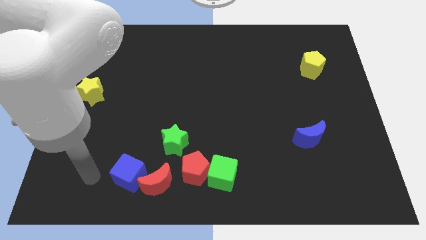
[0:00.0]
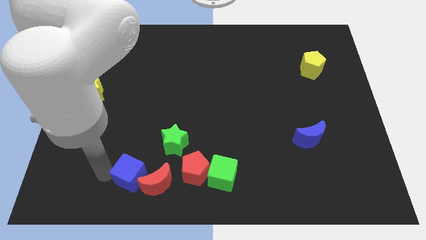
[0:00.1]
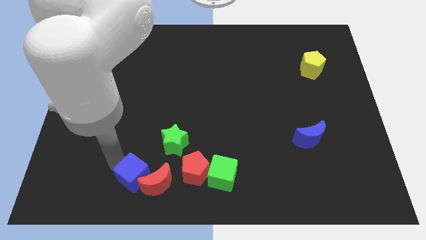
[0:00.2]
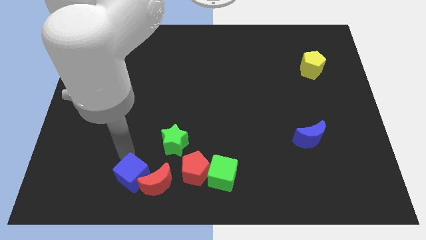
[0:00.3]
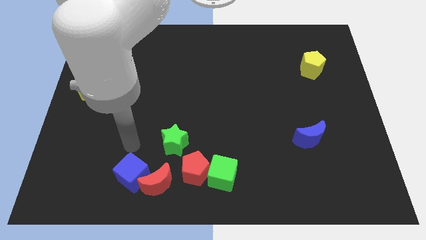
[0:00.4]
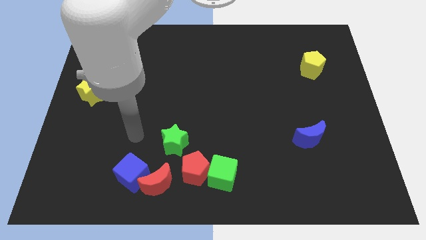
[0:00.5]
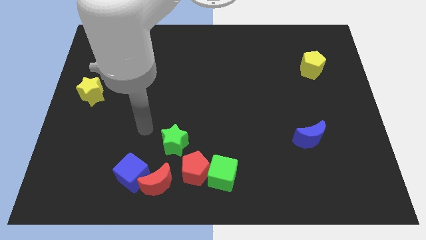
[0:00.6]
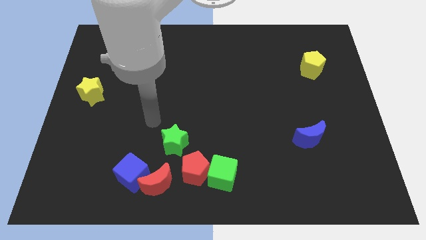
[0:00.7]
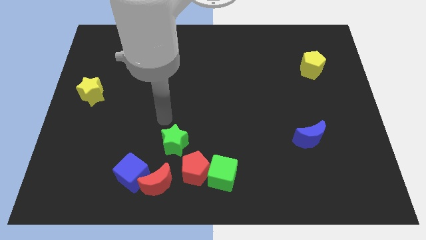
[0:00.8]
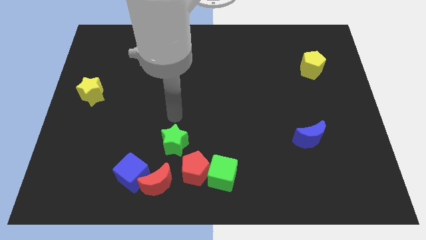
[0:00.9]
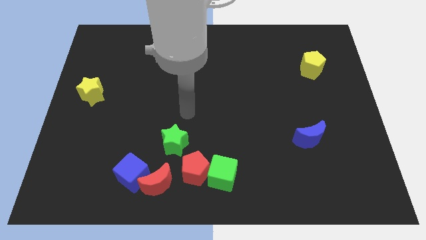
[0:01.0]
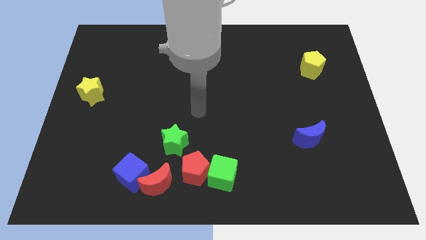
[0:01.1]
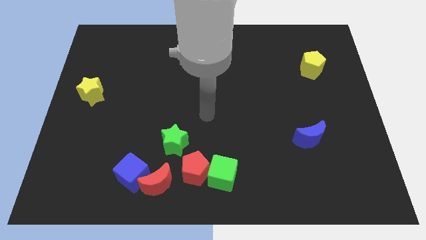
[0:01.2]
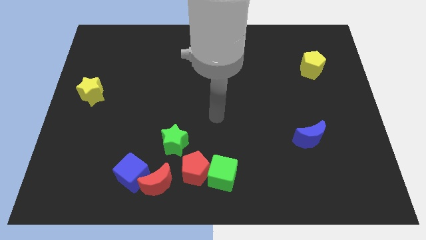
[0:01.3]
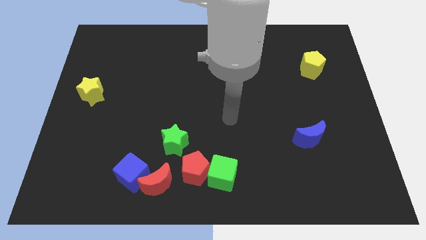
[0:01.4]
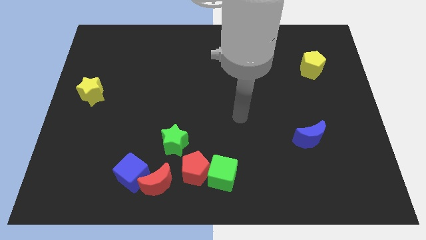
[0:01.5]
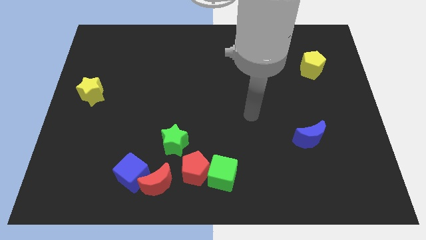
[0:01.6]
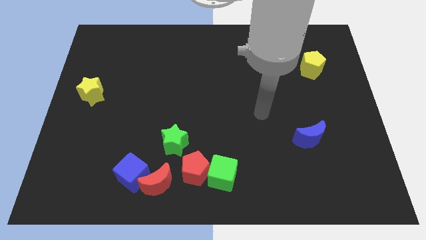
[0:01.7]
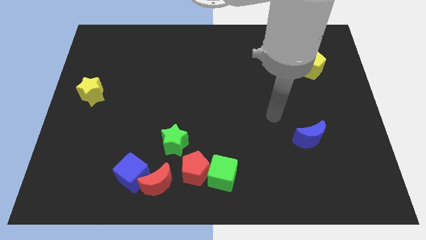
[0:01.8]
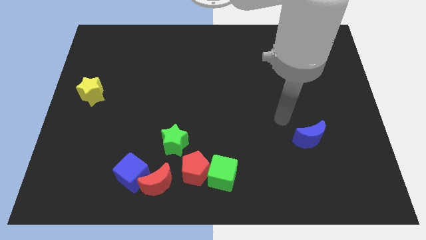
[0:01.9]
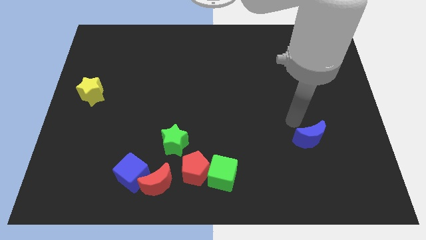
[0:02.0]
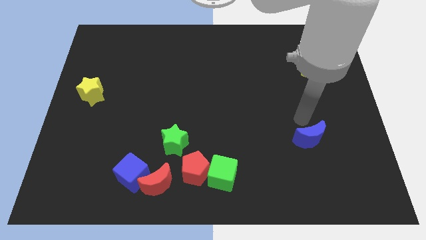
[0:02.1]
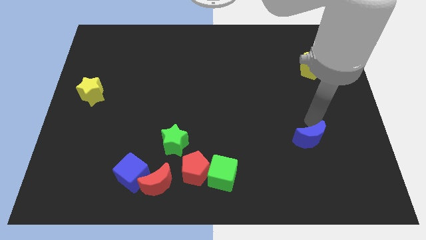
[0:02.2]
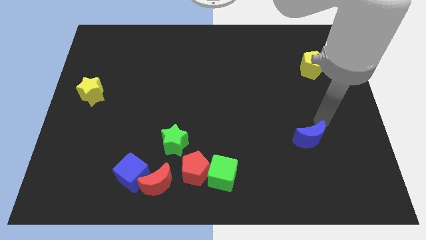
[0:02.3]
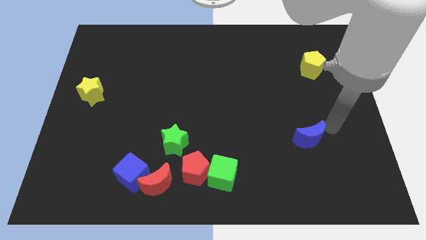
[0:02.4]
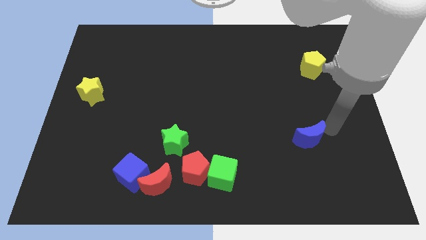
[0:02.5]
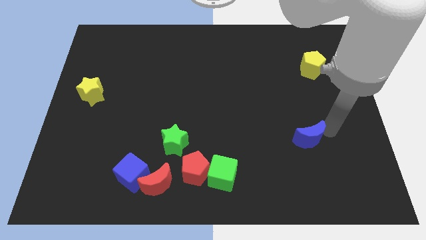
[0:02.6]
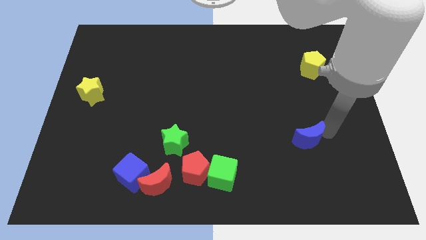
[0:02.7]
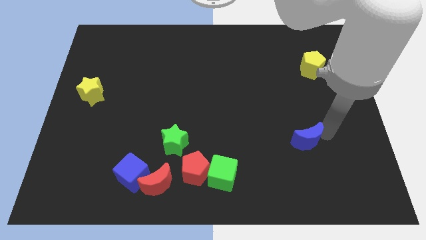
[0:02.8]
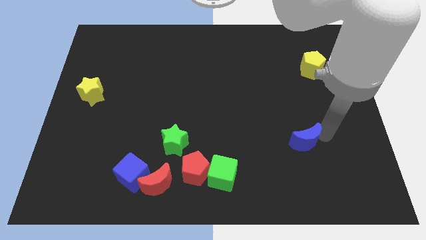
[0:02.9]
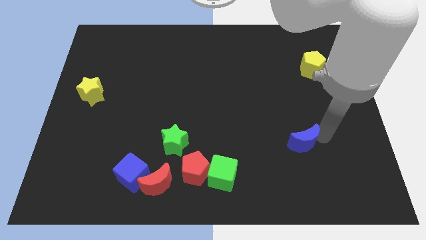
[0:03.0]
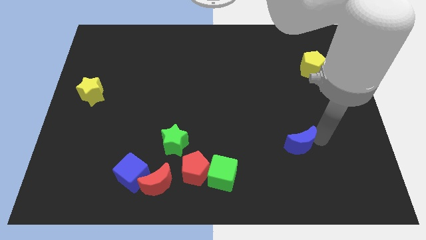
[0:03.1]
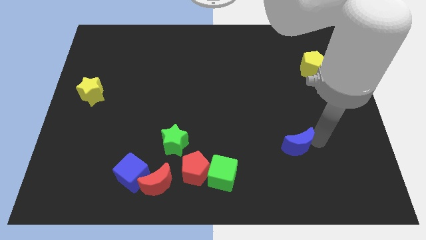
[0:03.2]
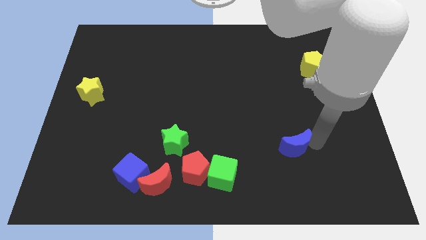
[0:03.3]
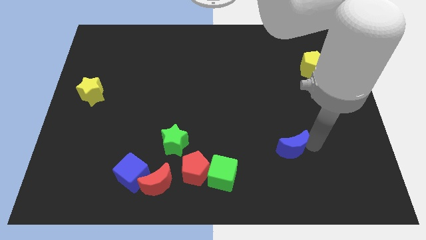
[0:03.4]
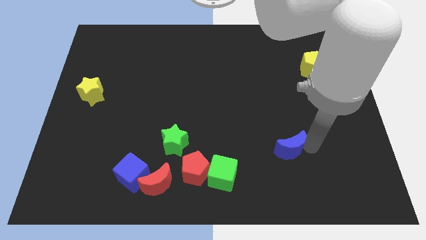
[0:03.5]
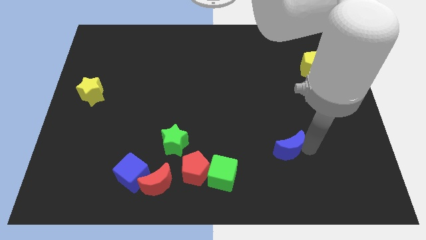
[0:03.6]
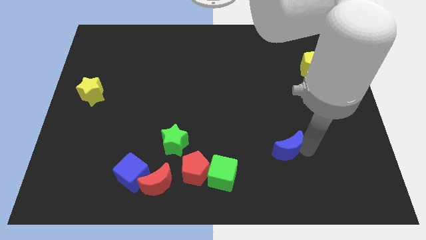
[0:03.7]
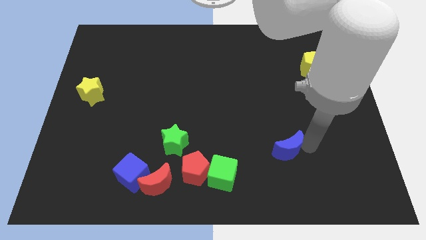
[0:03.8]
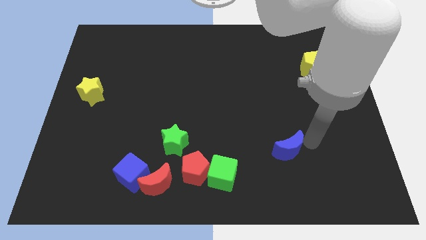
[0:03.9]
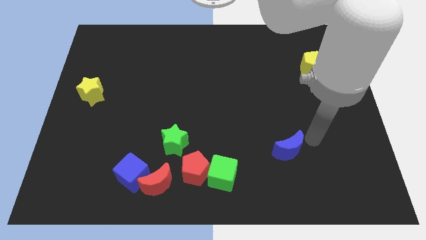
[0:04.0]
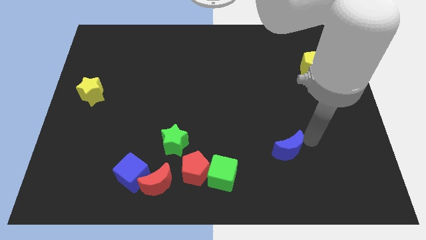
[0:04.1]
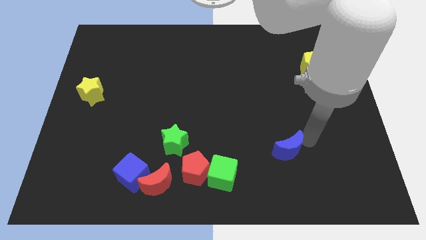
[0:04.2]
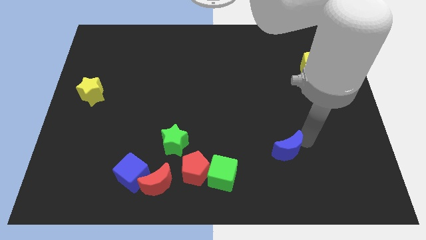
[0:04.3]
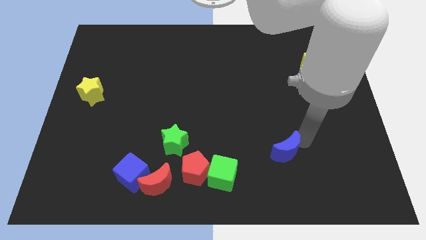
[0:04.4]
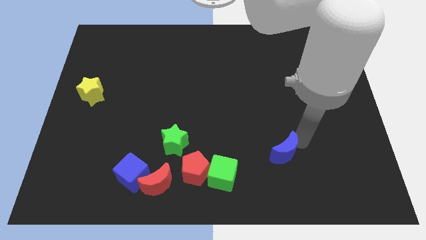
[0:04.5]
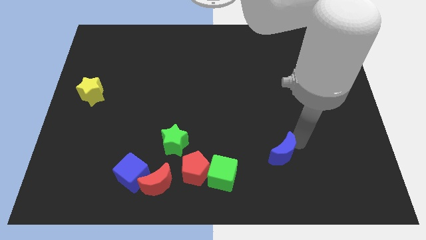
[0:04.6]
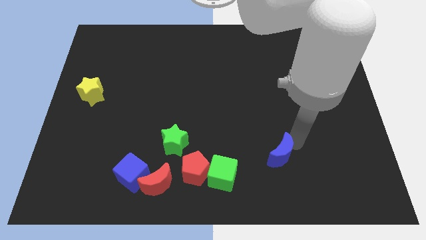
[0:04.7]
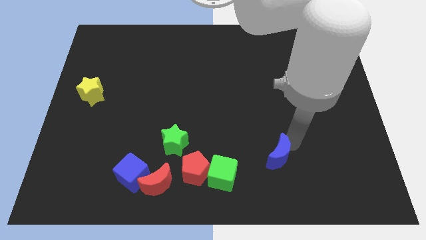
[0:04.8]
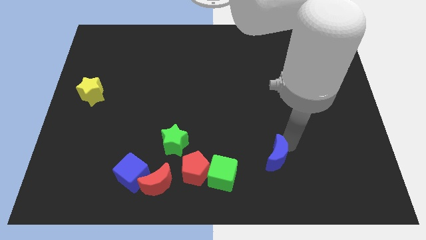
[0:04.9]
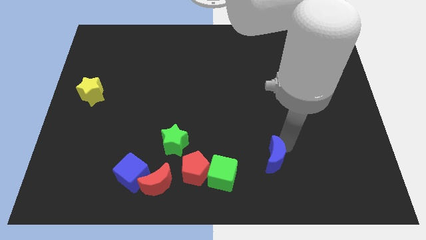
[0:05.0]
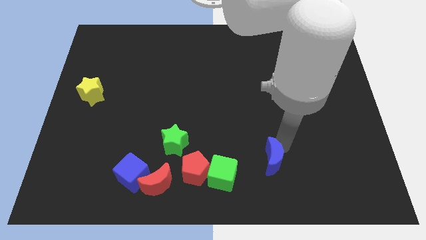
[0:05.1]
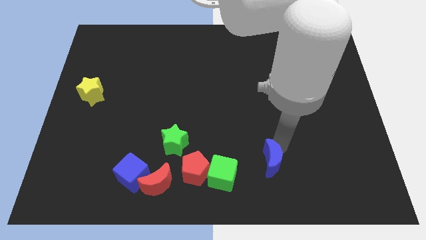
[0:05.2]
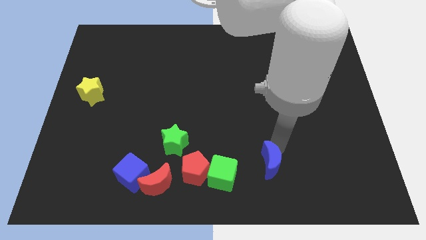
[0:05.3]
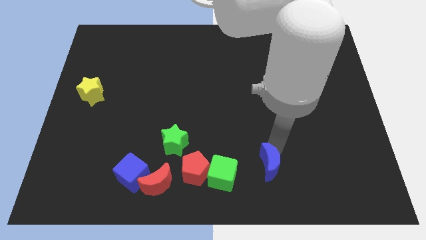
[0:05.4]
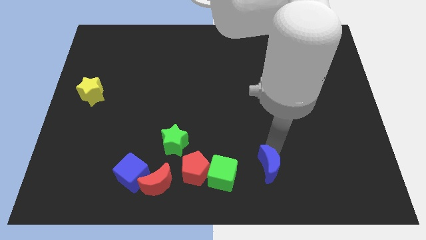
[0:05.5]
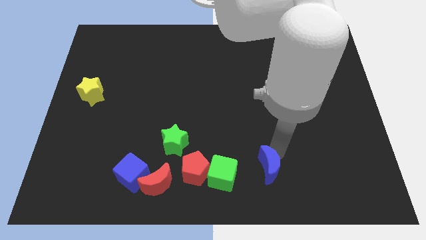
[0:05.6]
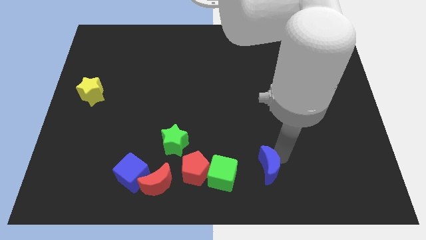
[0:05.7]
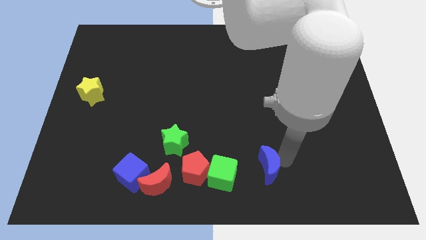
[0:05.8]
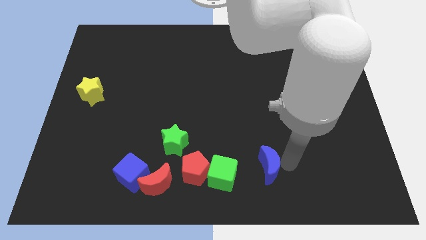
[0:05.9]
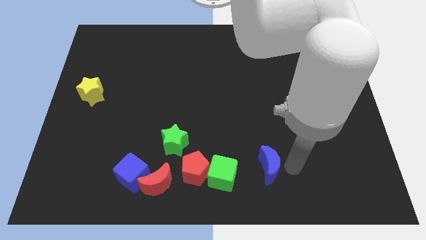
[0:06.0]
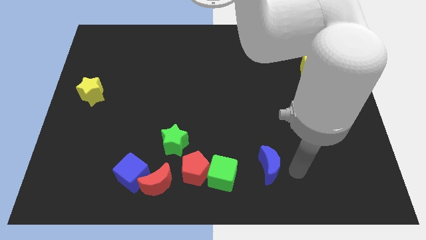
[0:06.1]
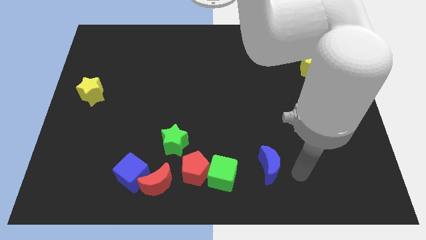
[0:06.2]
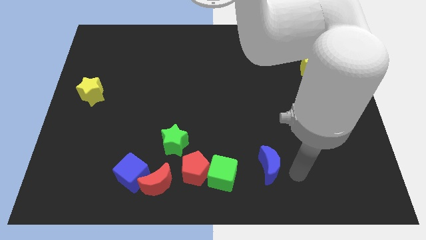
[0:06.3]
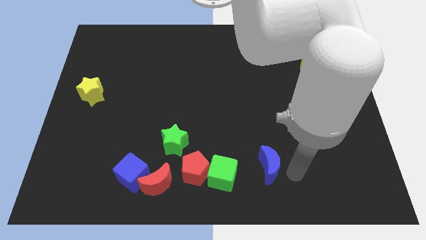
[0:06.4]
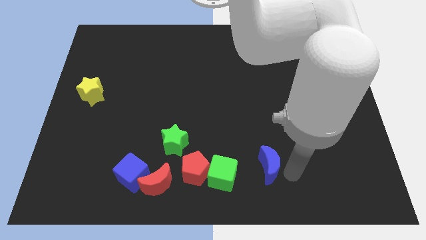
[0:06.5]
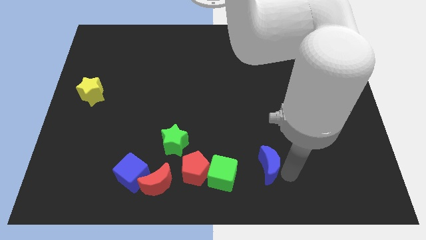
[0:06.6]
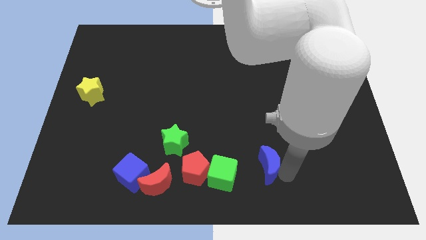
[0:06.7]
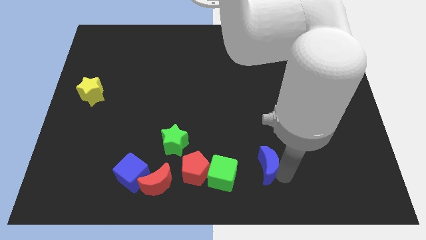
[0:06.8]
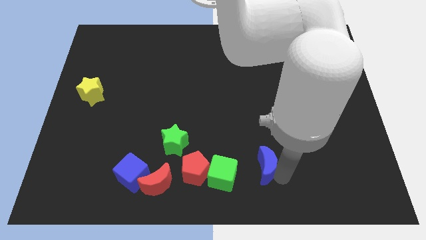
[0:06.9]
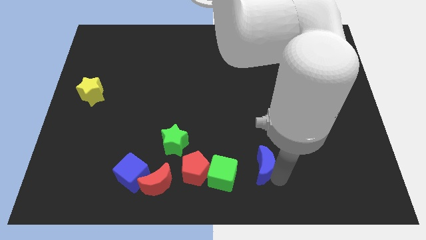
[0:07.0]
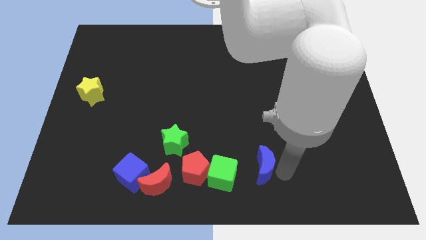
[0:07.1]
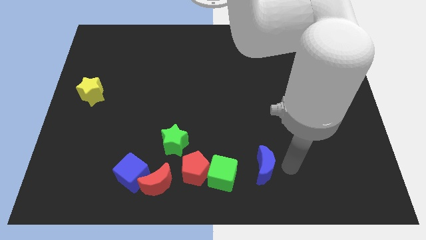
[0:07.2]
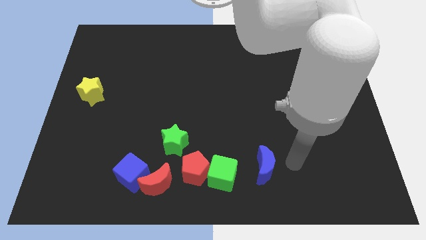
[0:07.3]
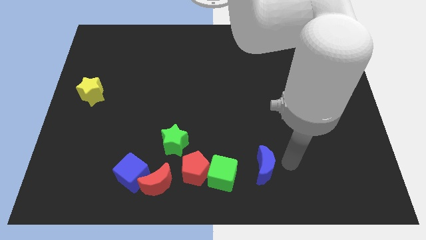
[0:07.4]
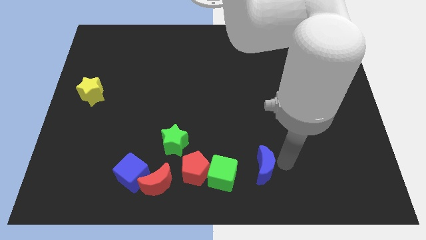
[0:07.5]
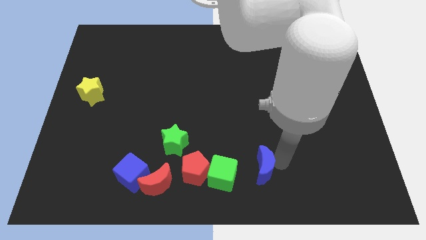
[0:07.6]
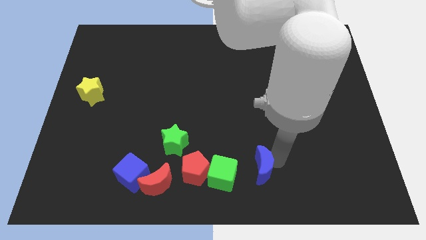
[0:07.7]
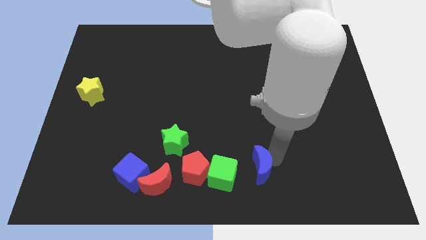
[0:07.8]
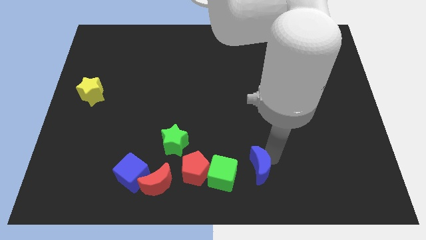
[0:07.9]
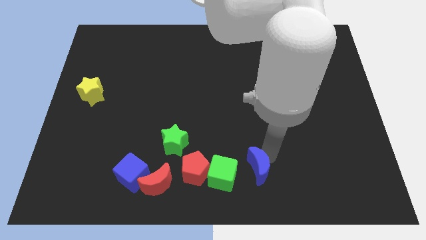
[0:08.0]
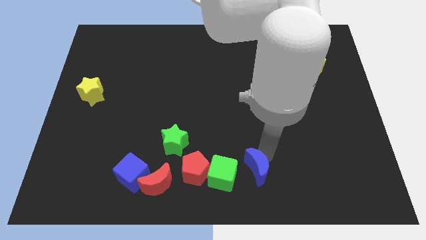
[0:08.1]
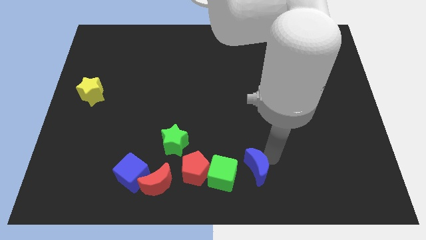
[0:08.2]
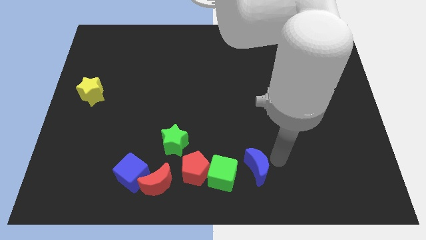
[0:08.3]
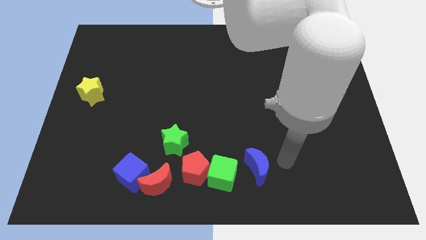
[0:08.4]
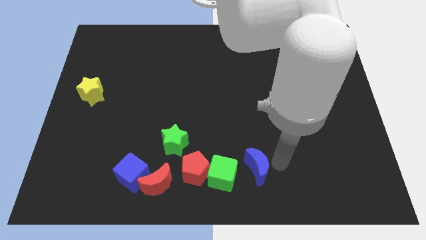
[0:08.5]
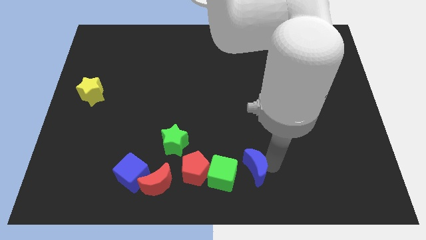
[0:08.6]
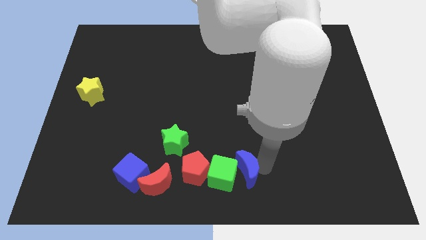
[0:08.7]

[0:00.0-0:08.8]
push the blue moon to the green cube
